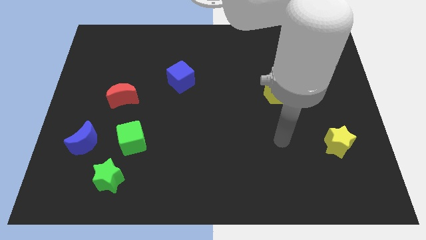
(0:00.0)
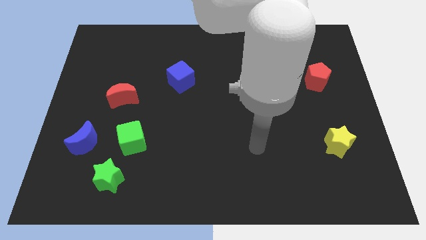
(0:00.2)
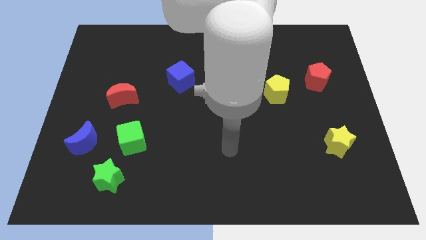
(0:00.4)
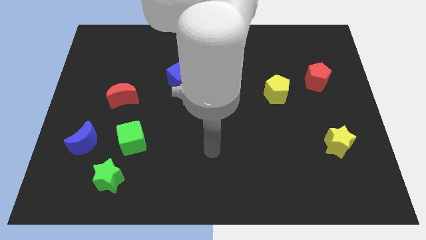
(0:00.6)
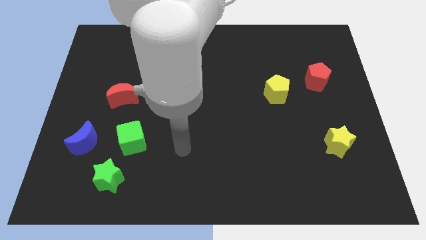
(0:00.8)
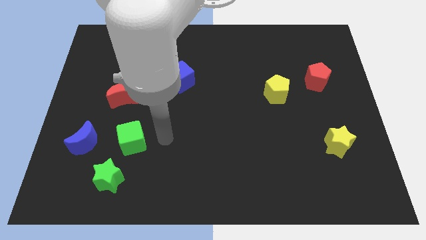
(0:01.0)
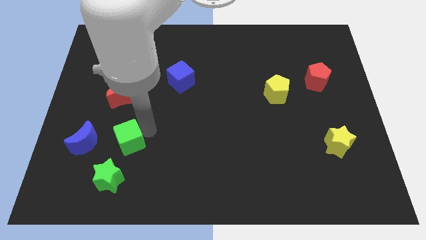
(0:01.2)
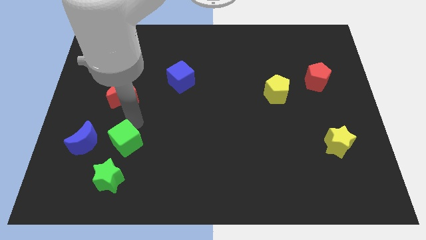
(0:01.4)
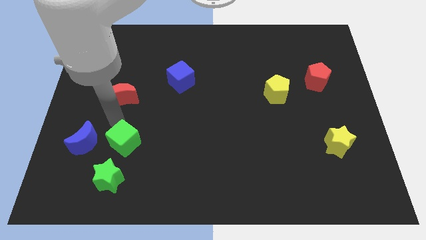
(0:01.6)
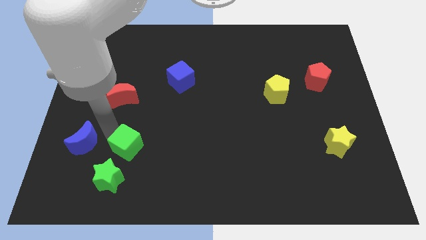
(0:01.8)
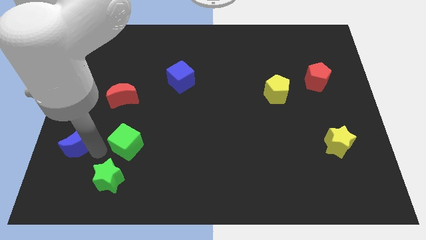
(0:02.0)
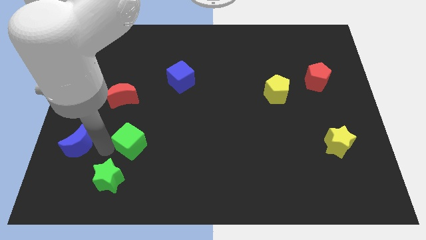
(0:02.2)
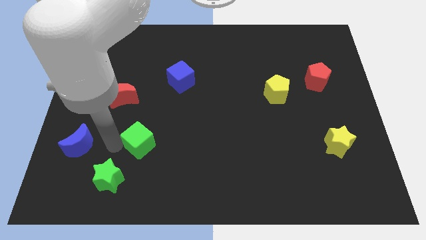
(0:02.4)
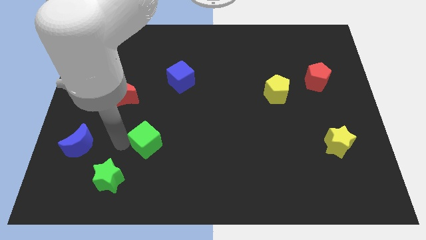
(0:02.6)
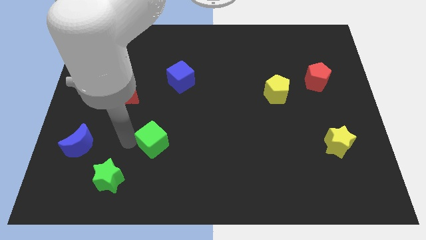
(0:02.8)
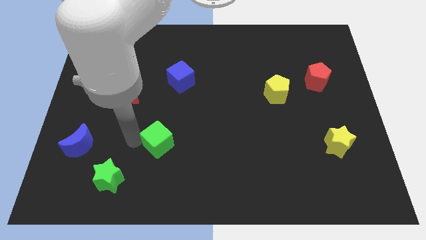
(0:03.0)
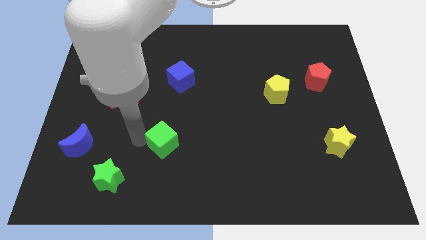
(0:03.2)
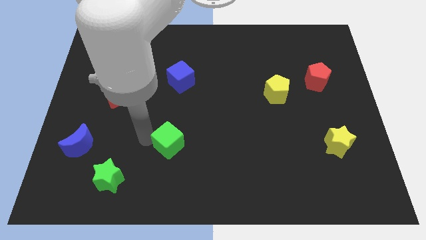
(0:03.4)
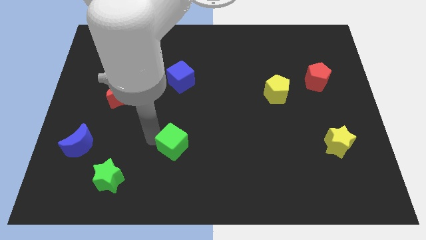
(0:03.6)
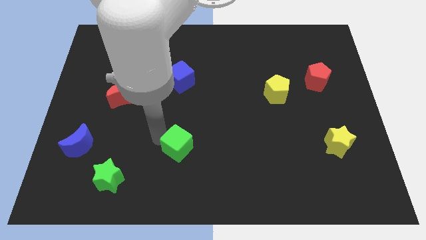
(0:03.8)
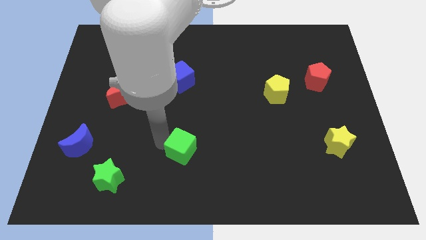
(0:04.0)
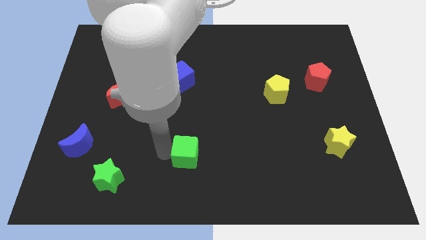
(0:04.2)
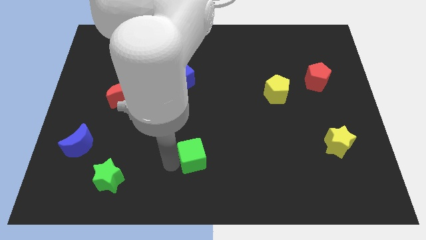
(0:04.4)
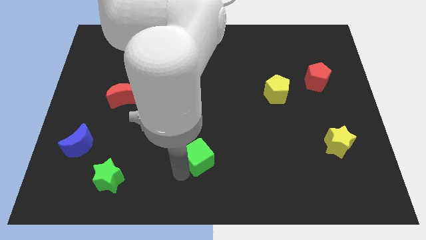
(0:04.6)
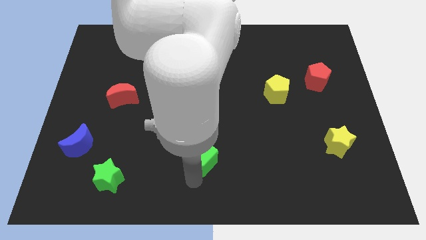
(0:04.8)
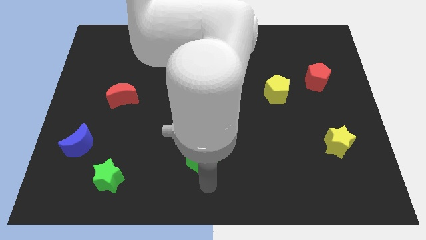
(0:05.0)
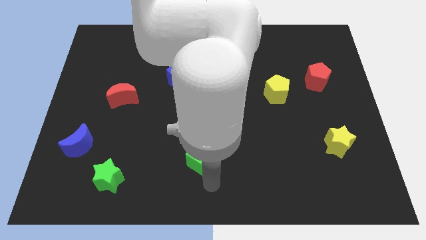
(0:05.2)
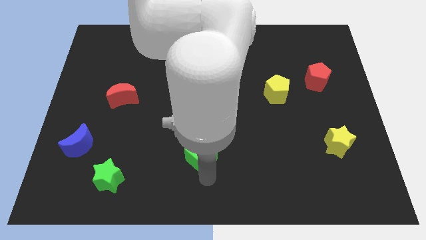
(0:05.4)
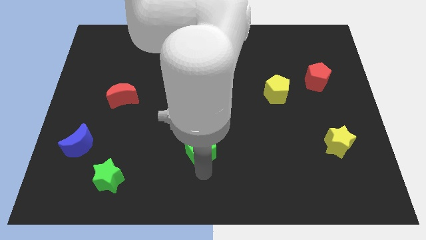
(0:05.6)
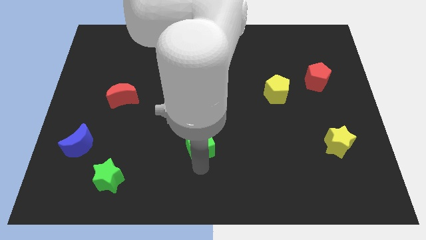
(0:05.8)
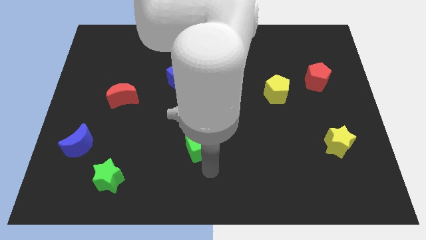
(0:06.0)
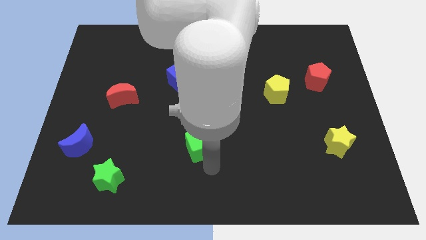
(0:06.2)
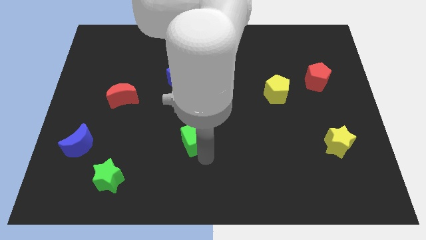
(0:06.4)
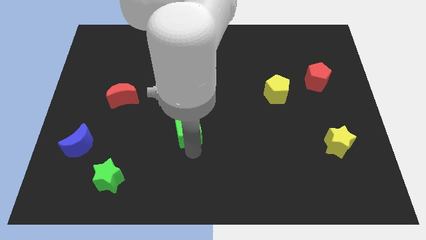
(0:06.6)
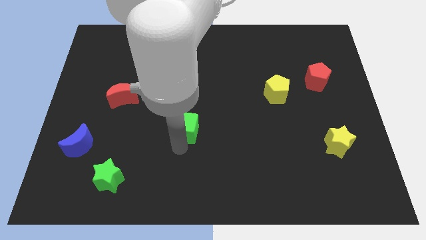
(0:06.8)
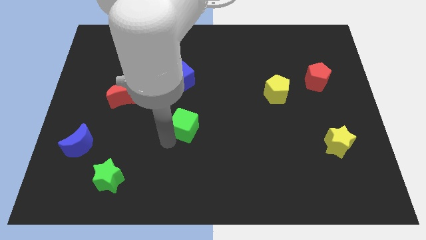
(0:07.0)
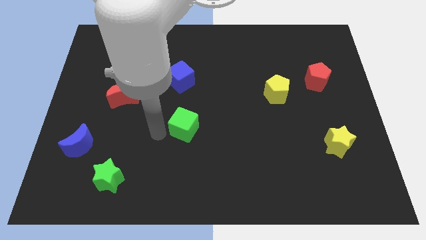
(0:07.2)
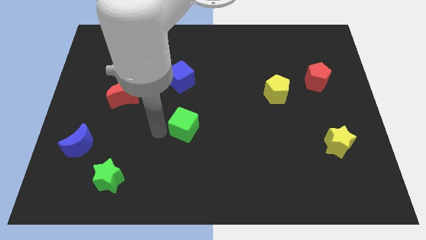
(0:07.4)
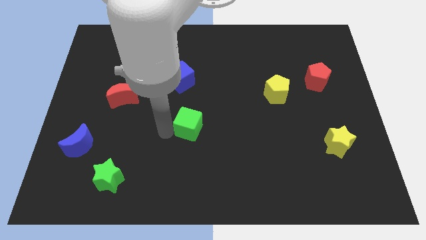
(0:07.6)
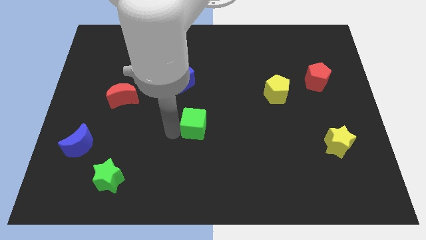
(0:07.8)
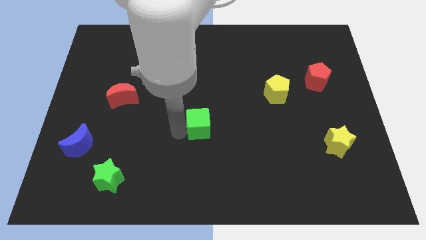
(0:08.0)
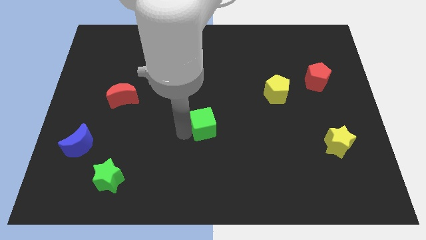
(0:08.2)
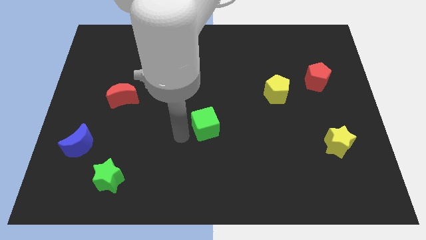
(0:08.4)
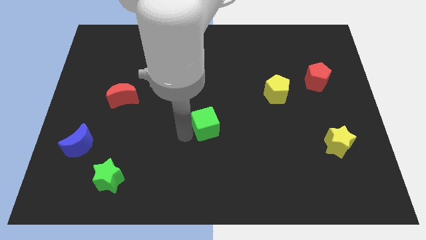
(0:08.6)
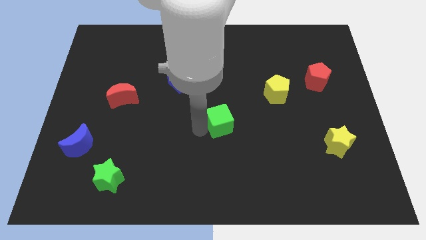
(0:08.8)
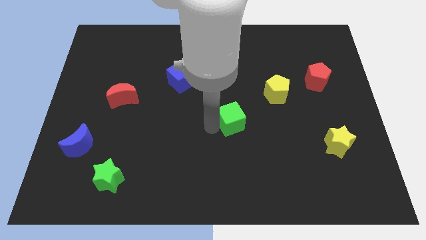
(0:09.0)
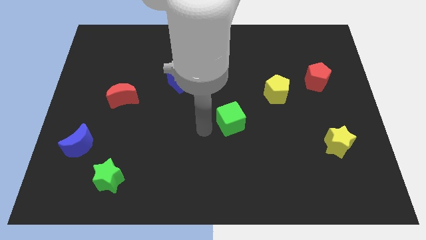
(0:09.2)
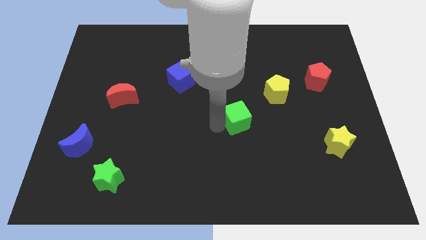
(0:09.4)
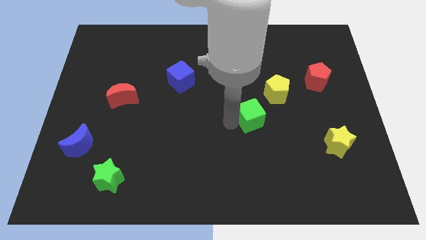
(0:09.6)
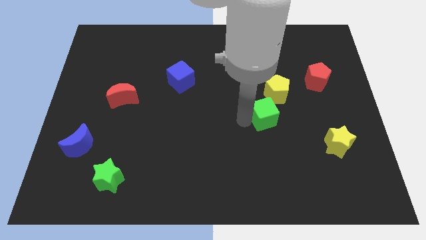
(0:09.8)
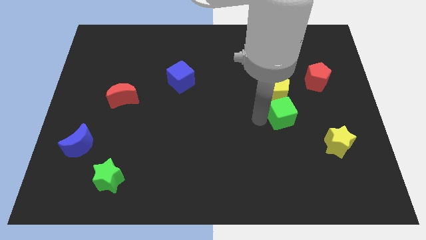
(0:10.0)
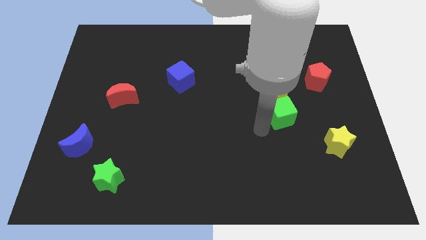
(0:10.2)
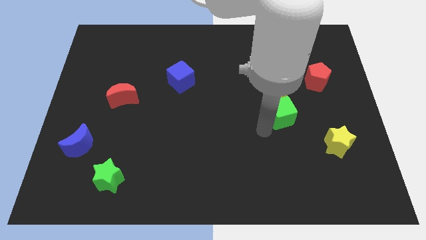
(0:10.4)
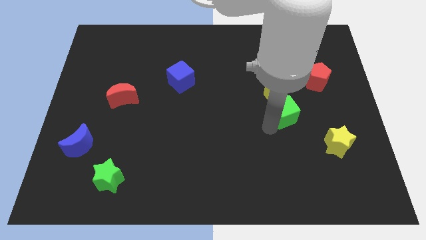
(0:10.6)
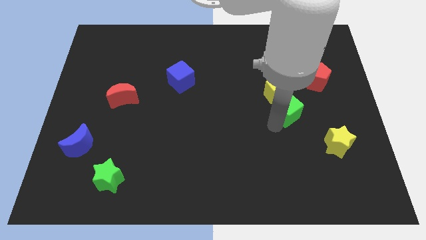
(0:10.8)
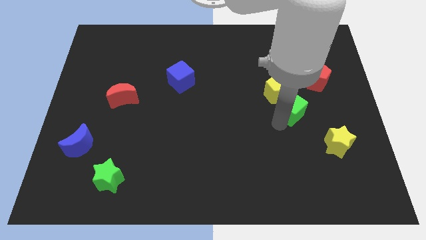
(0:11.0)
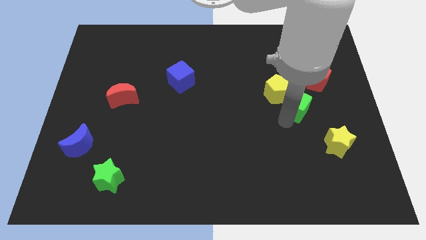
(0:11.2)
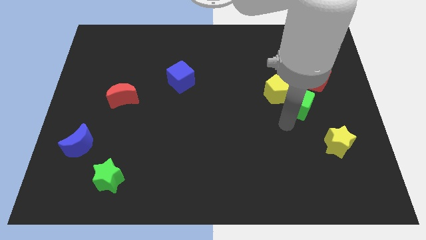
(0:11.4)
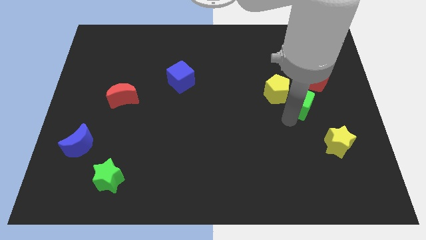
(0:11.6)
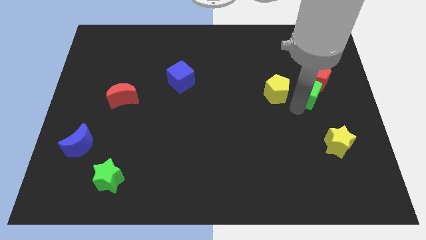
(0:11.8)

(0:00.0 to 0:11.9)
slide the green cube to the red pentagon

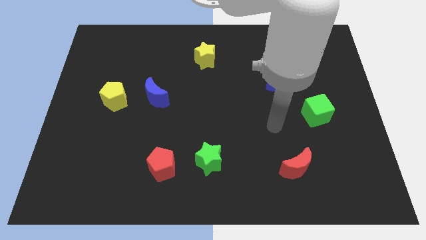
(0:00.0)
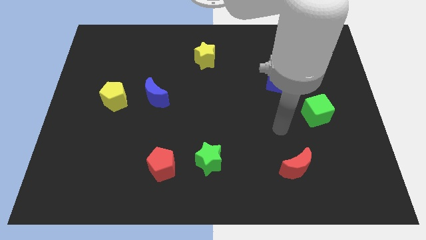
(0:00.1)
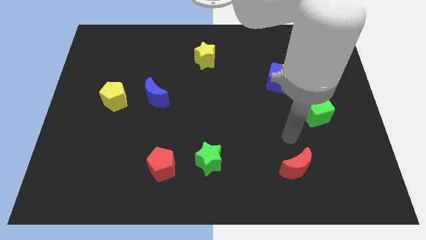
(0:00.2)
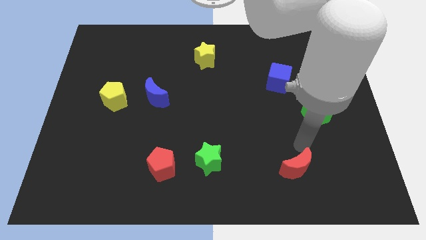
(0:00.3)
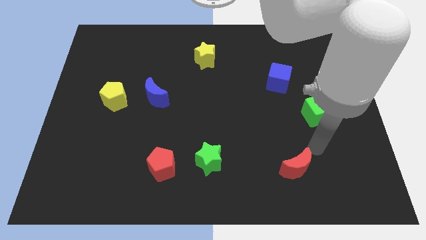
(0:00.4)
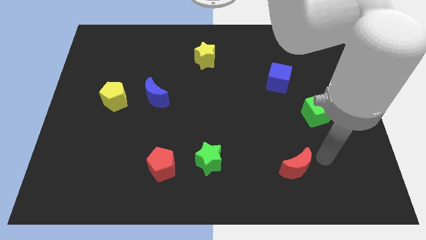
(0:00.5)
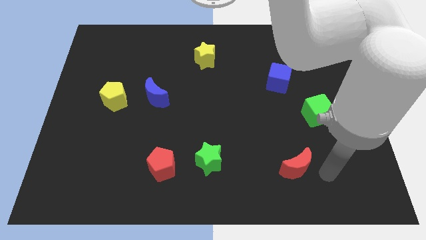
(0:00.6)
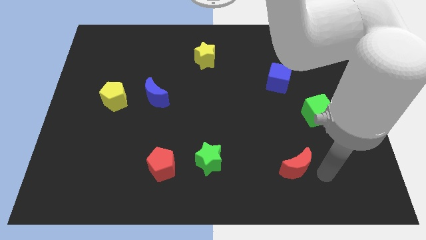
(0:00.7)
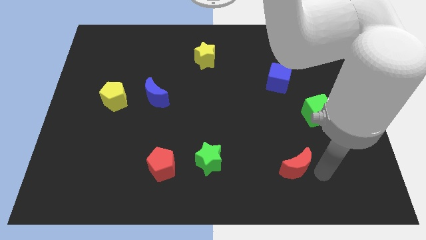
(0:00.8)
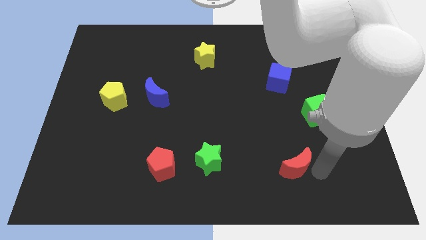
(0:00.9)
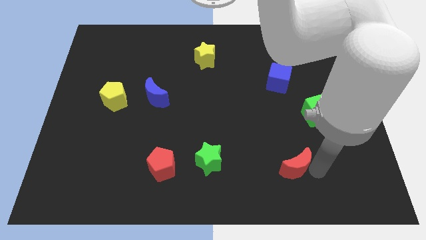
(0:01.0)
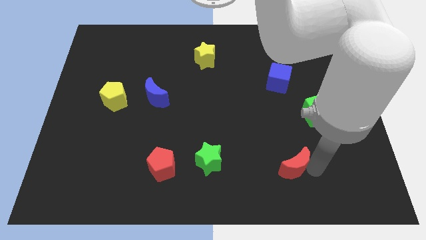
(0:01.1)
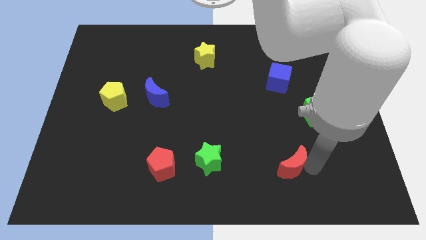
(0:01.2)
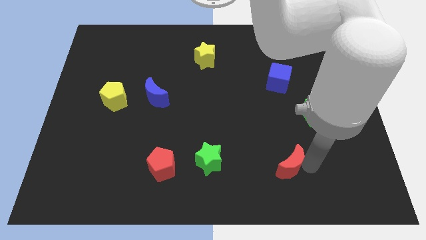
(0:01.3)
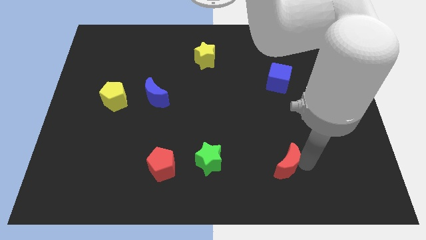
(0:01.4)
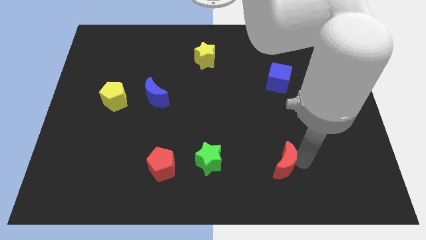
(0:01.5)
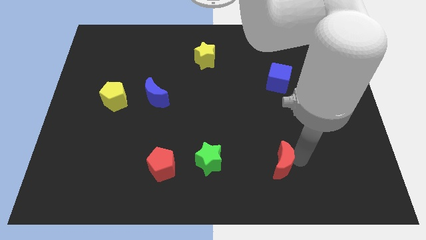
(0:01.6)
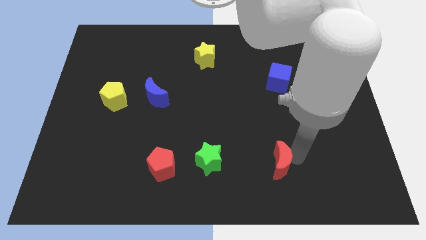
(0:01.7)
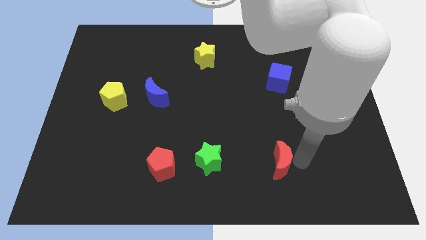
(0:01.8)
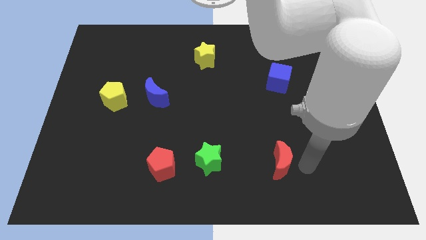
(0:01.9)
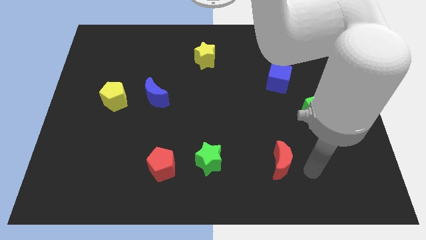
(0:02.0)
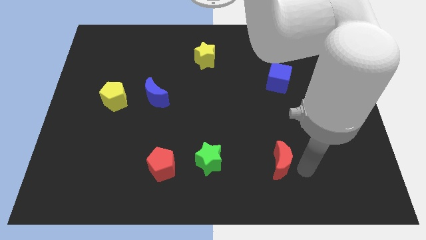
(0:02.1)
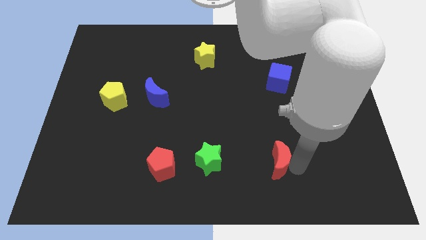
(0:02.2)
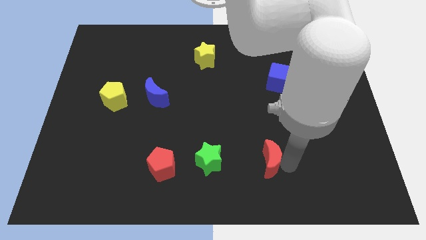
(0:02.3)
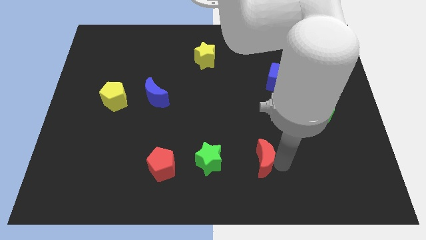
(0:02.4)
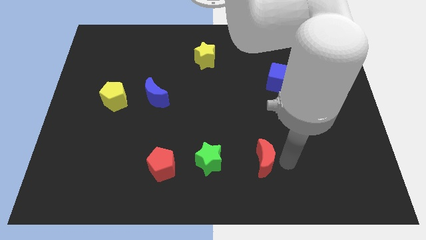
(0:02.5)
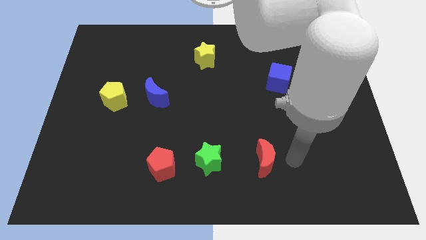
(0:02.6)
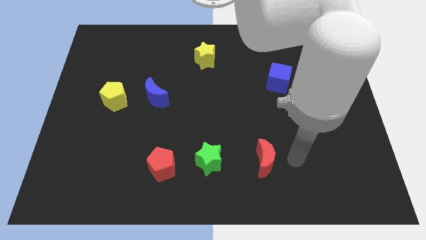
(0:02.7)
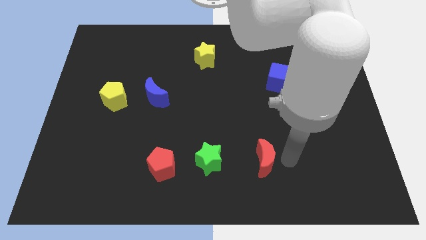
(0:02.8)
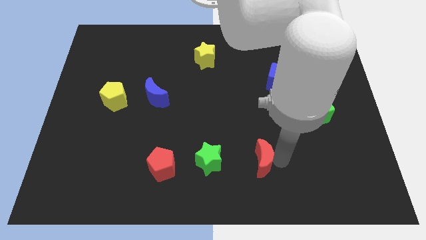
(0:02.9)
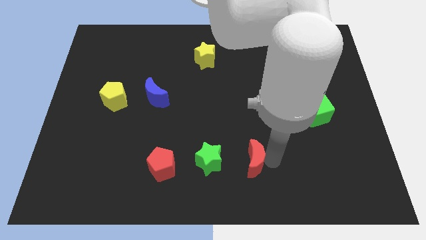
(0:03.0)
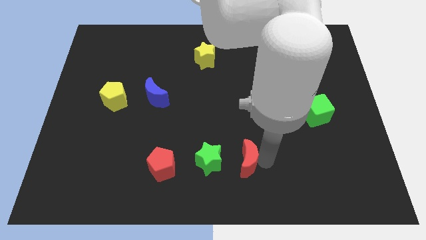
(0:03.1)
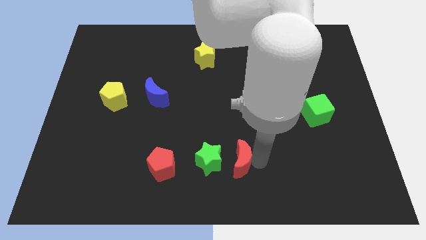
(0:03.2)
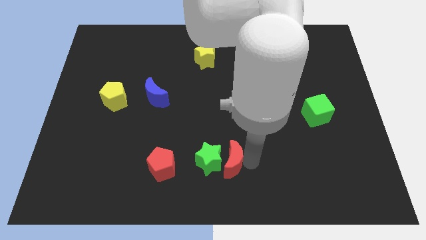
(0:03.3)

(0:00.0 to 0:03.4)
slide the red moon to the green star
